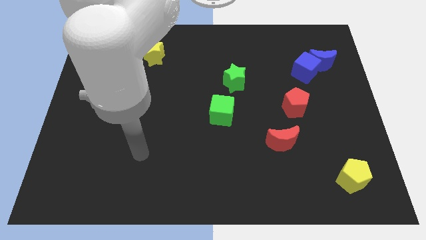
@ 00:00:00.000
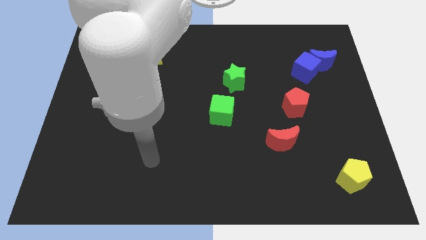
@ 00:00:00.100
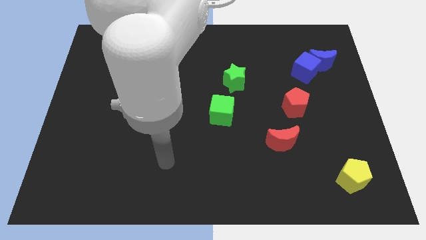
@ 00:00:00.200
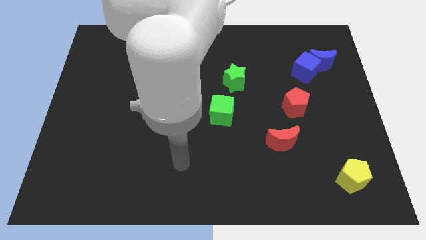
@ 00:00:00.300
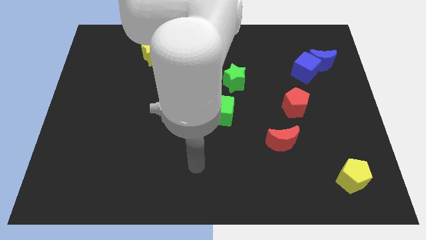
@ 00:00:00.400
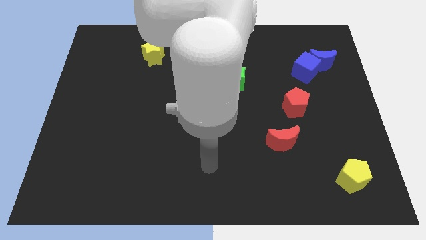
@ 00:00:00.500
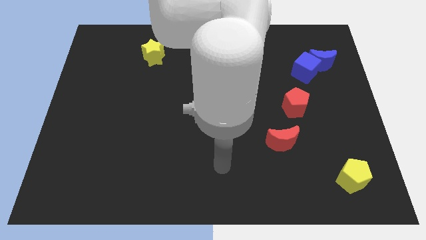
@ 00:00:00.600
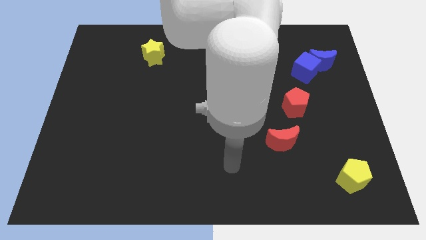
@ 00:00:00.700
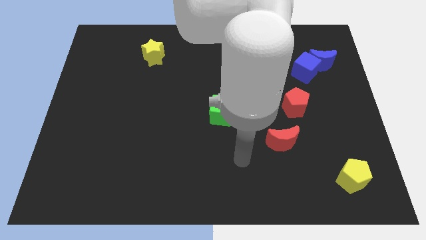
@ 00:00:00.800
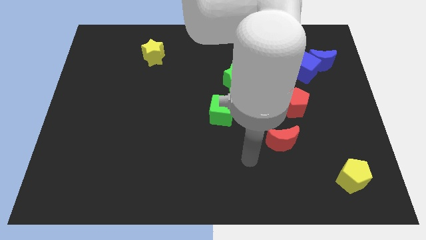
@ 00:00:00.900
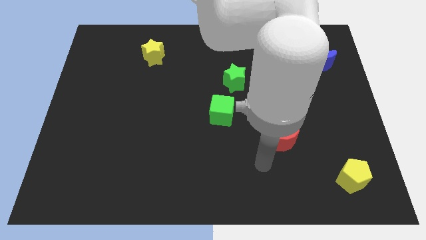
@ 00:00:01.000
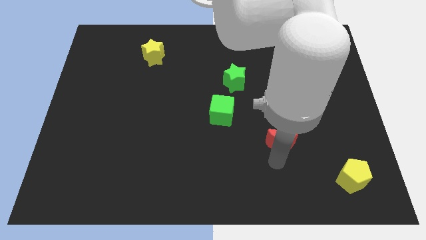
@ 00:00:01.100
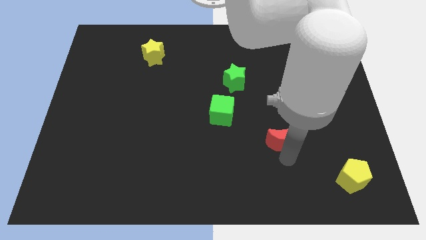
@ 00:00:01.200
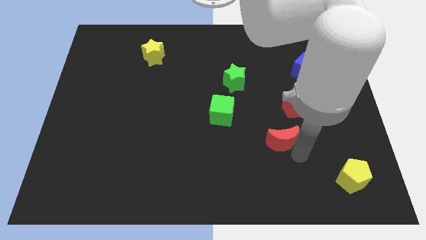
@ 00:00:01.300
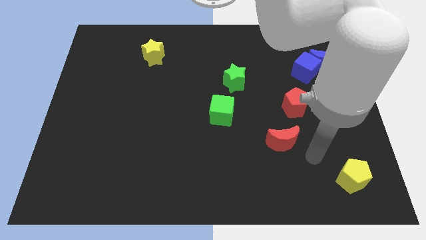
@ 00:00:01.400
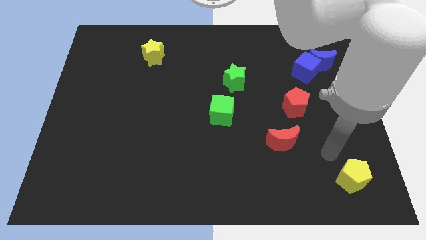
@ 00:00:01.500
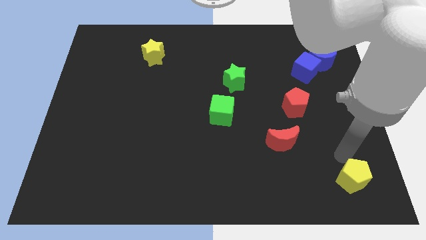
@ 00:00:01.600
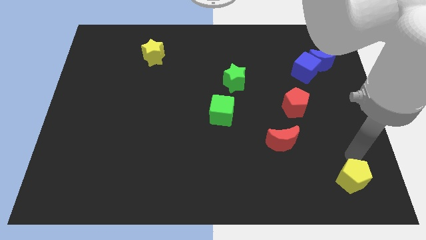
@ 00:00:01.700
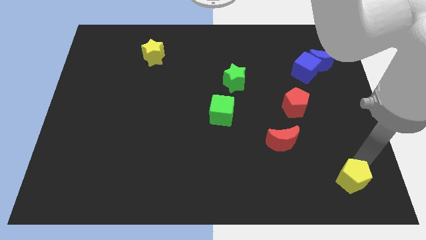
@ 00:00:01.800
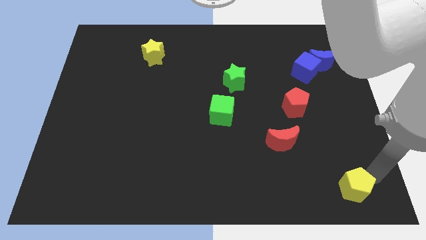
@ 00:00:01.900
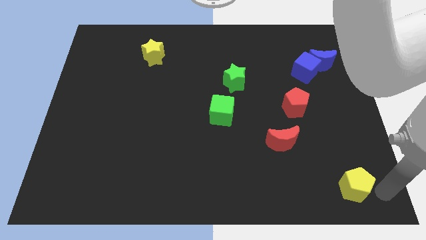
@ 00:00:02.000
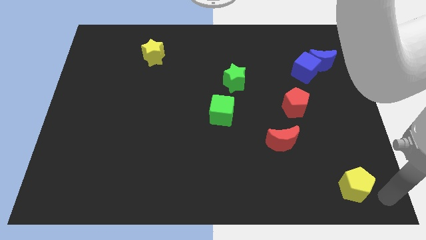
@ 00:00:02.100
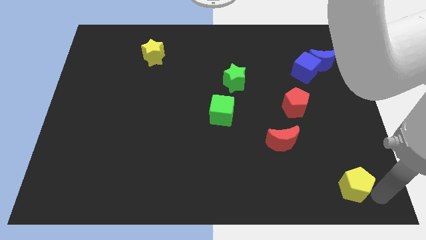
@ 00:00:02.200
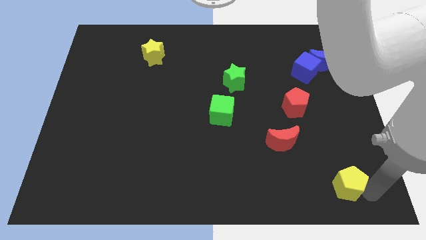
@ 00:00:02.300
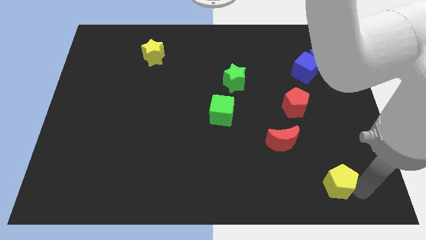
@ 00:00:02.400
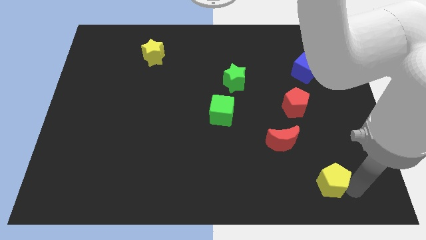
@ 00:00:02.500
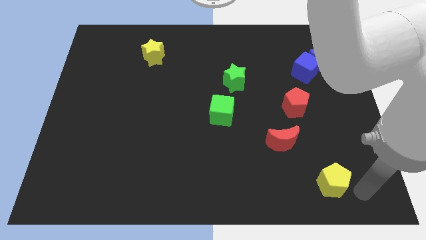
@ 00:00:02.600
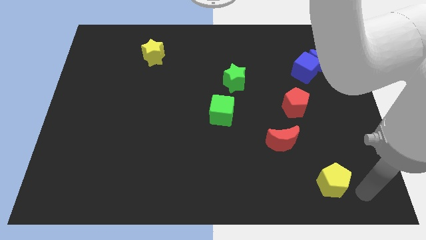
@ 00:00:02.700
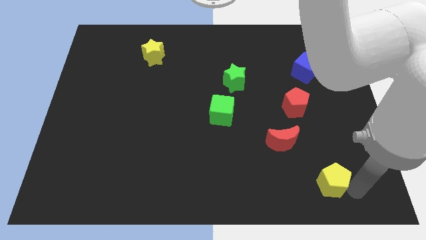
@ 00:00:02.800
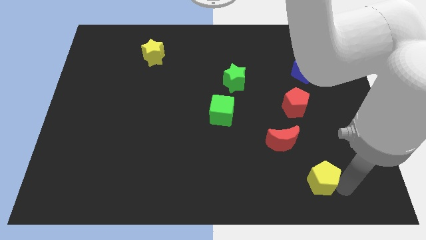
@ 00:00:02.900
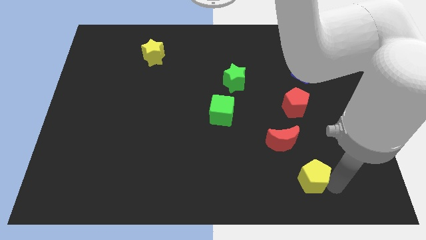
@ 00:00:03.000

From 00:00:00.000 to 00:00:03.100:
move the yellow pentagon left a little bit

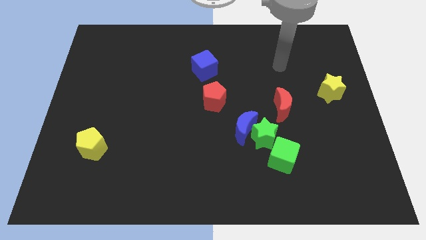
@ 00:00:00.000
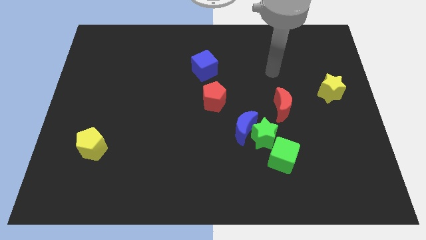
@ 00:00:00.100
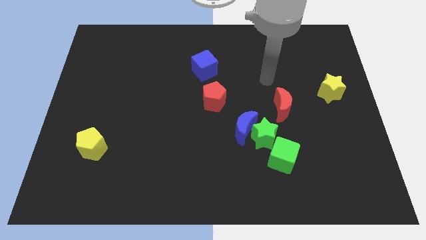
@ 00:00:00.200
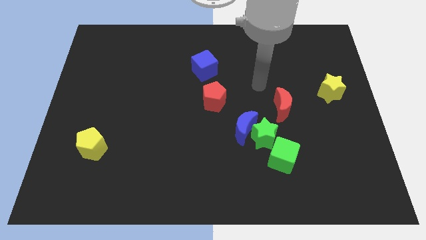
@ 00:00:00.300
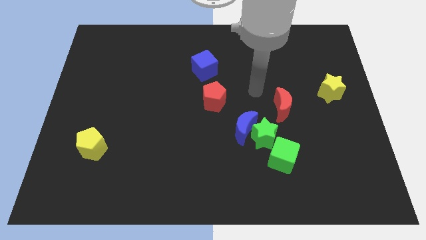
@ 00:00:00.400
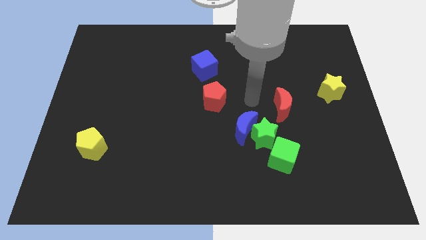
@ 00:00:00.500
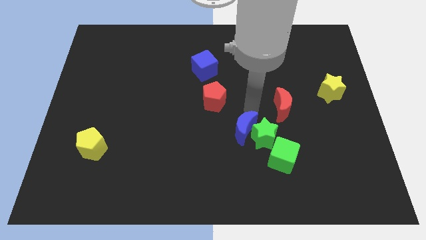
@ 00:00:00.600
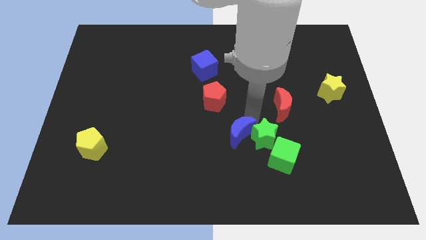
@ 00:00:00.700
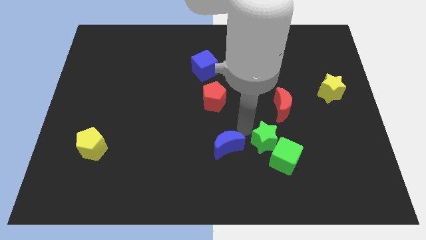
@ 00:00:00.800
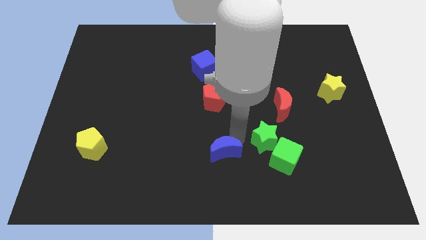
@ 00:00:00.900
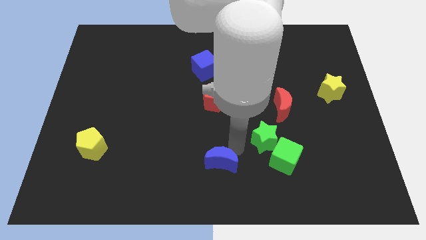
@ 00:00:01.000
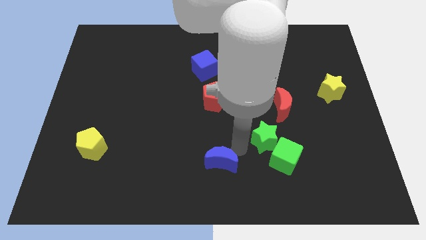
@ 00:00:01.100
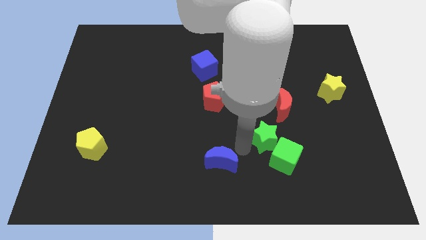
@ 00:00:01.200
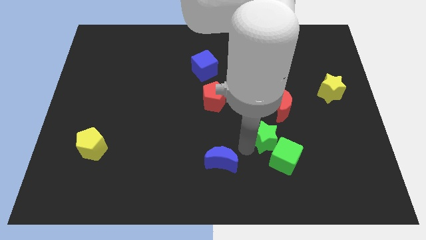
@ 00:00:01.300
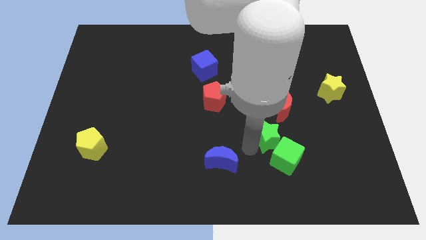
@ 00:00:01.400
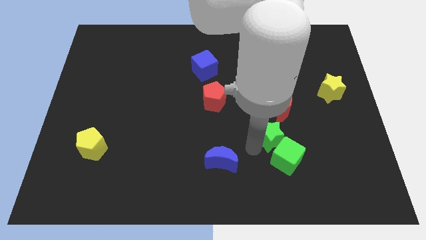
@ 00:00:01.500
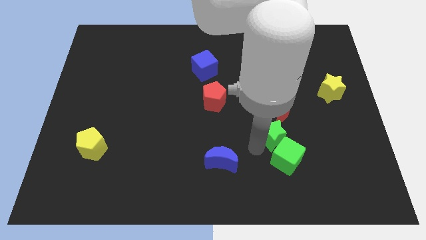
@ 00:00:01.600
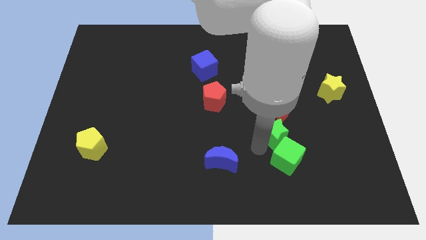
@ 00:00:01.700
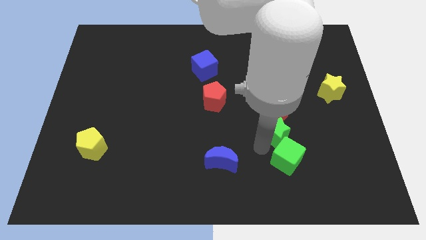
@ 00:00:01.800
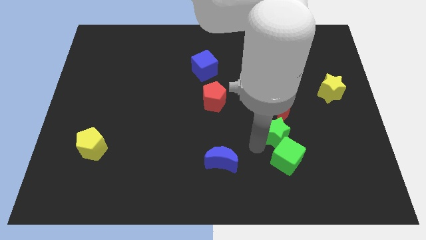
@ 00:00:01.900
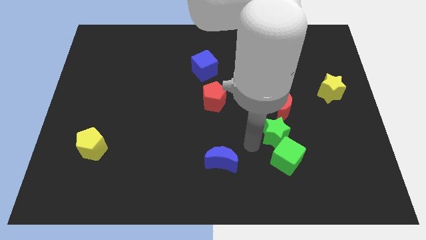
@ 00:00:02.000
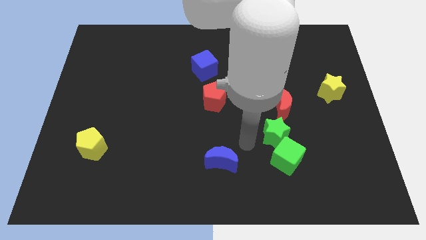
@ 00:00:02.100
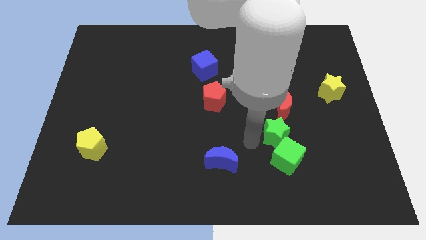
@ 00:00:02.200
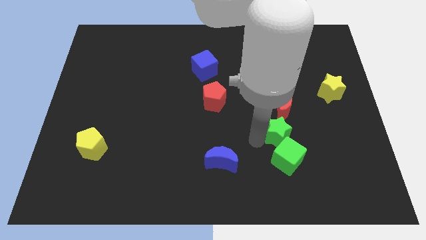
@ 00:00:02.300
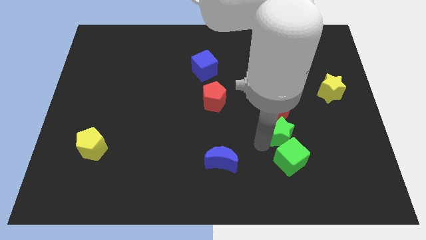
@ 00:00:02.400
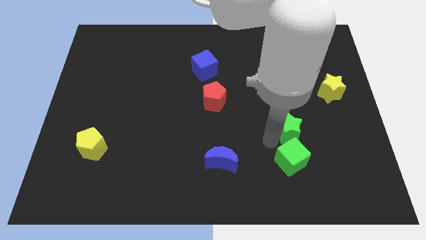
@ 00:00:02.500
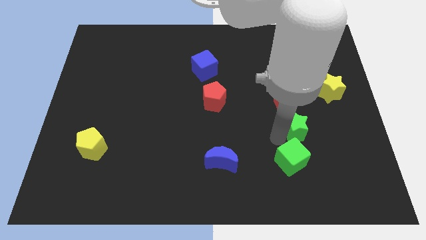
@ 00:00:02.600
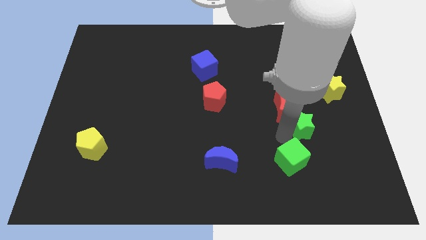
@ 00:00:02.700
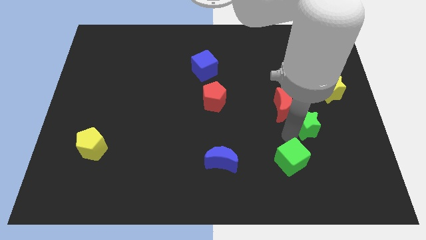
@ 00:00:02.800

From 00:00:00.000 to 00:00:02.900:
slightly slide the green star up and to the right

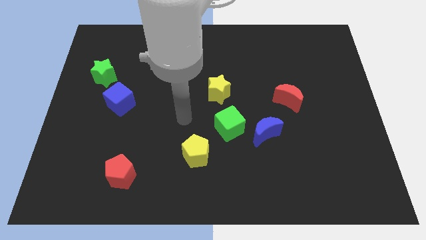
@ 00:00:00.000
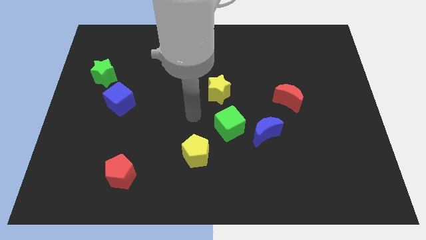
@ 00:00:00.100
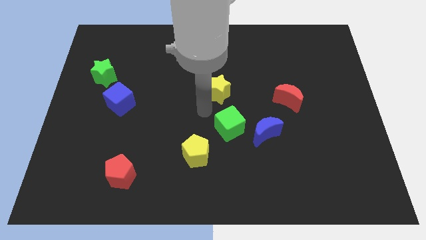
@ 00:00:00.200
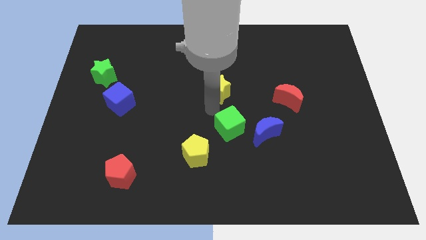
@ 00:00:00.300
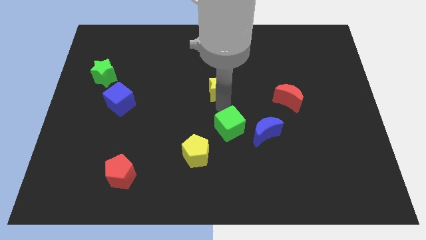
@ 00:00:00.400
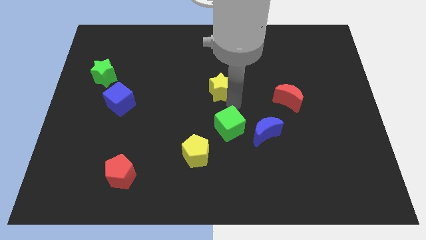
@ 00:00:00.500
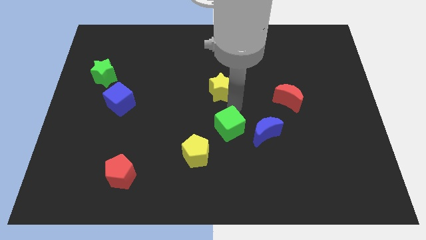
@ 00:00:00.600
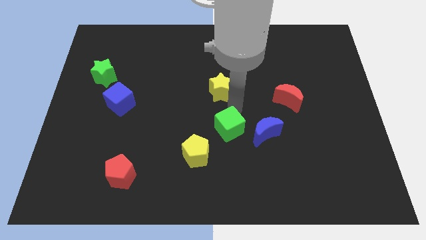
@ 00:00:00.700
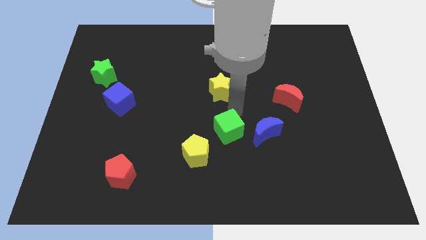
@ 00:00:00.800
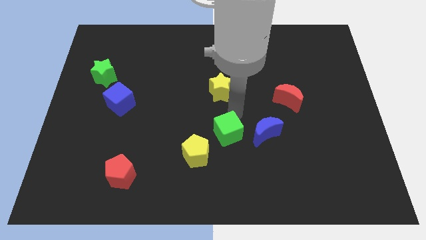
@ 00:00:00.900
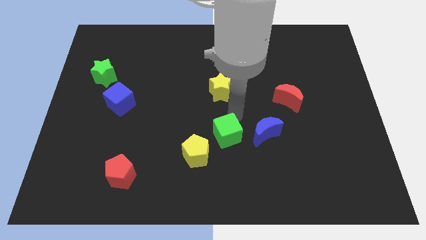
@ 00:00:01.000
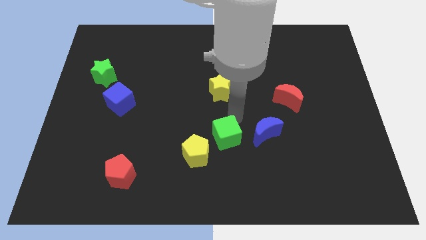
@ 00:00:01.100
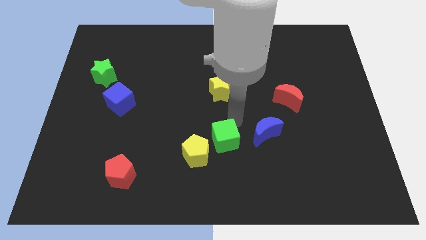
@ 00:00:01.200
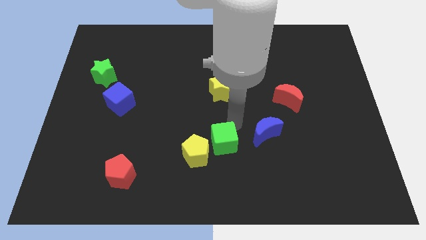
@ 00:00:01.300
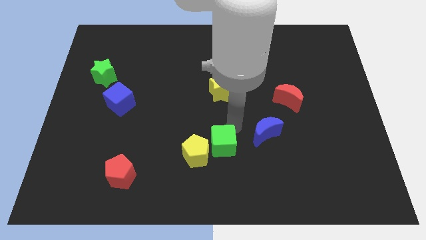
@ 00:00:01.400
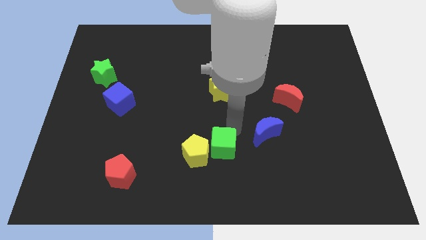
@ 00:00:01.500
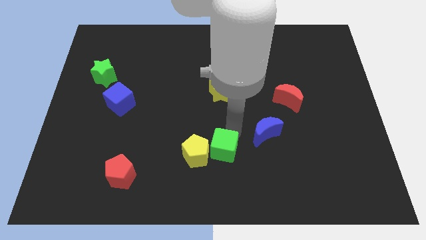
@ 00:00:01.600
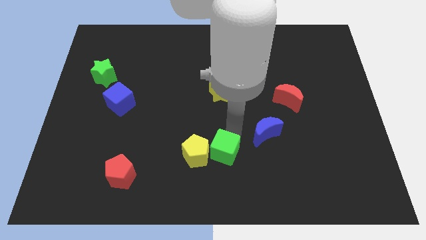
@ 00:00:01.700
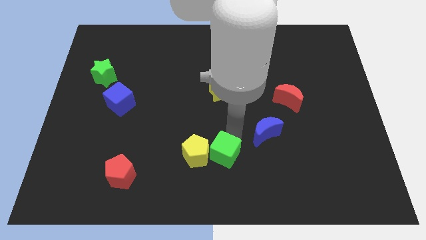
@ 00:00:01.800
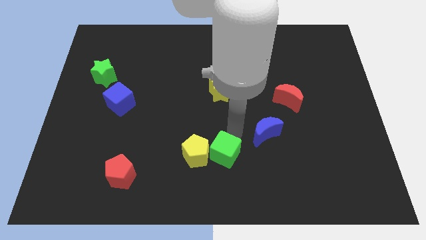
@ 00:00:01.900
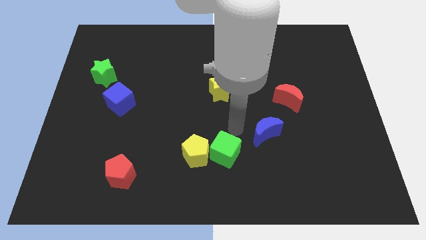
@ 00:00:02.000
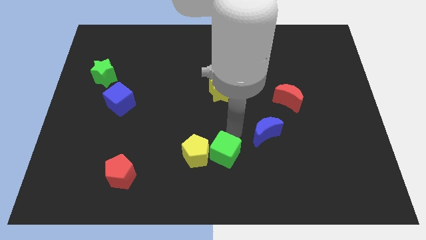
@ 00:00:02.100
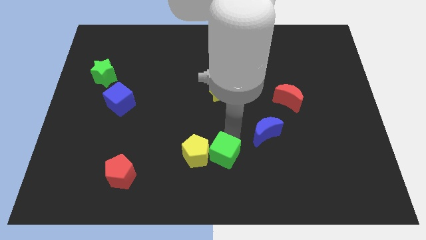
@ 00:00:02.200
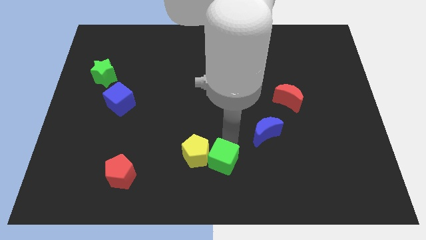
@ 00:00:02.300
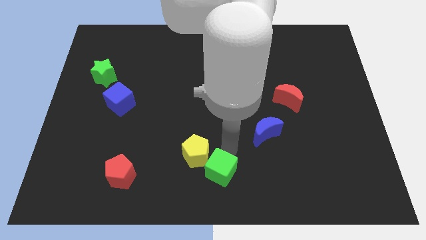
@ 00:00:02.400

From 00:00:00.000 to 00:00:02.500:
push the green cube down and to the left a little bit
